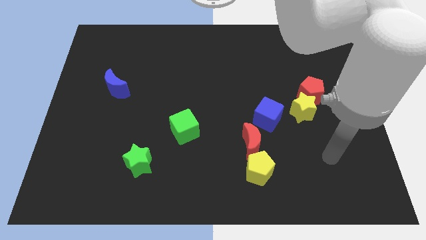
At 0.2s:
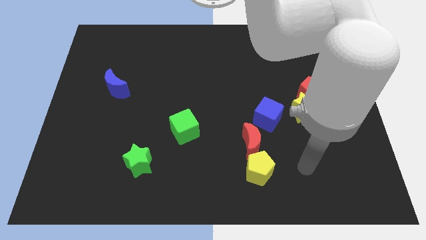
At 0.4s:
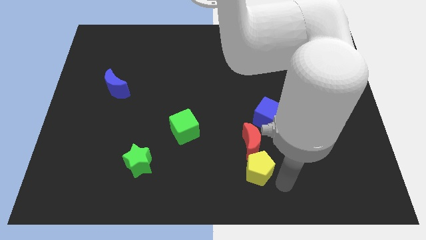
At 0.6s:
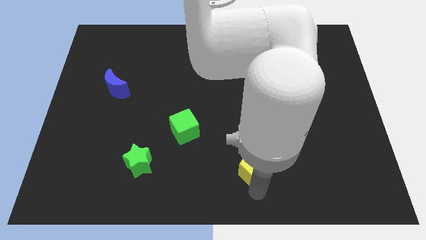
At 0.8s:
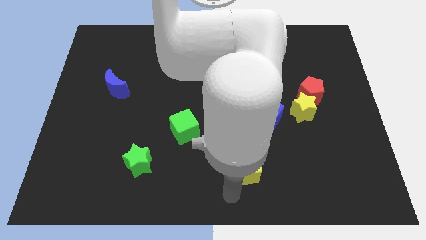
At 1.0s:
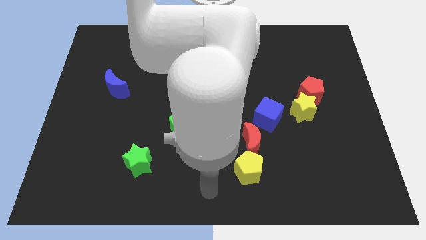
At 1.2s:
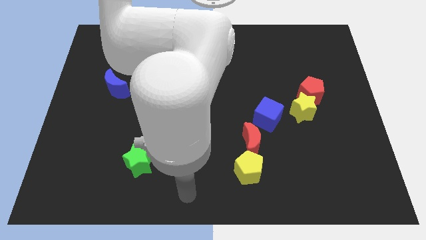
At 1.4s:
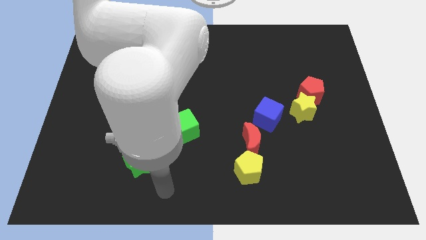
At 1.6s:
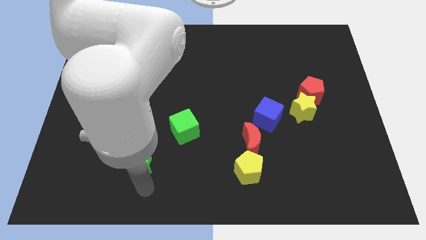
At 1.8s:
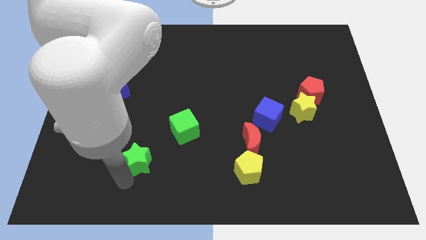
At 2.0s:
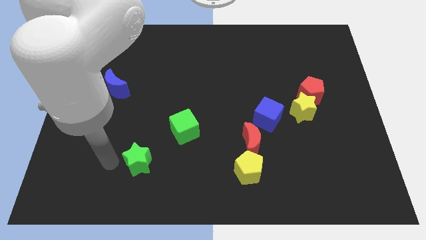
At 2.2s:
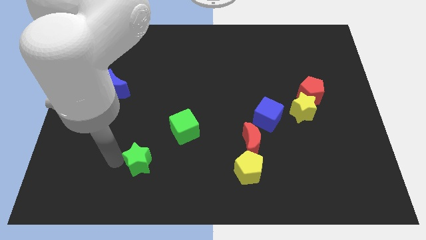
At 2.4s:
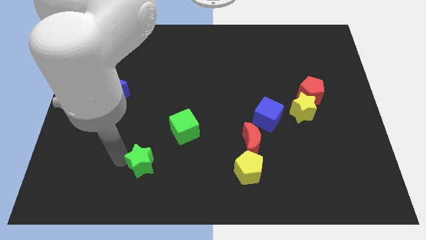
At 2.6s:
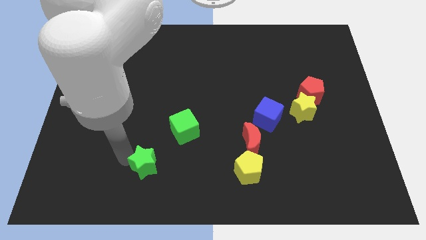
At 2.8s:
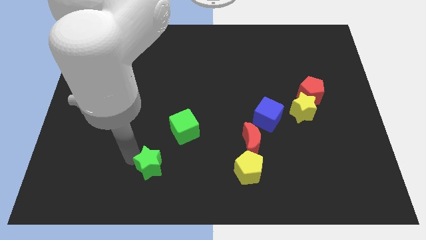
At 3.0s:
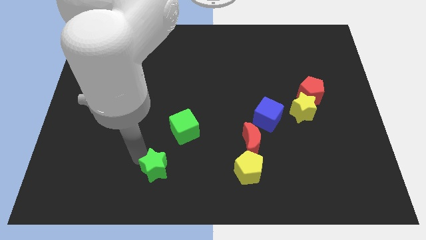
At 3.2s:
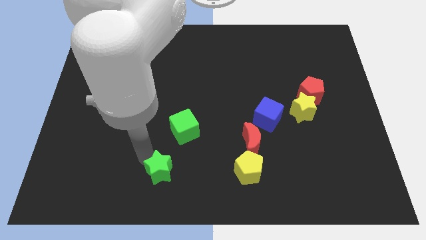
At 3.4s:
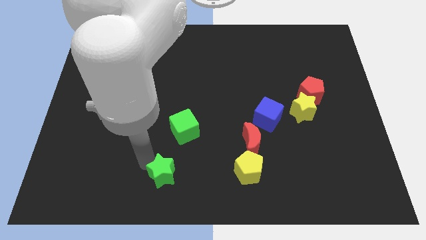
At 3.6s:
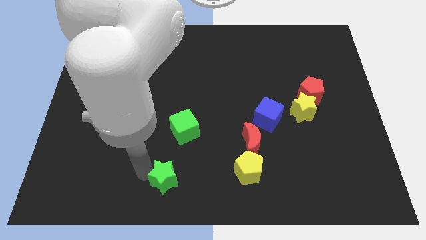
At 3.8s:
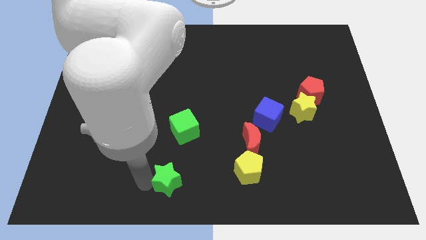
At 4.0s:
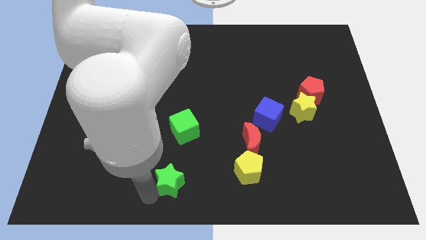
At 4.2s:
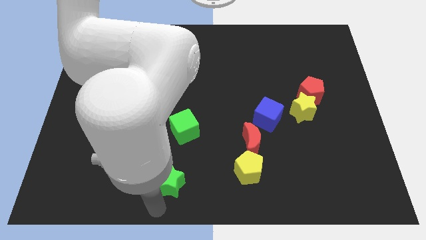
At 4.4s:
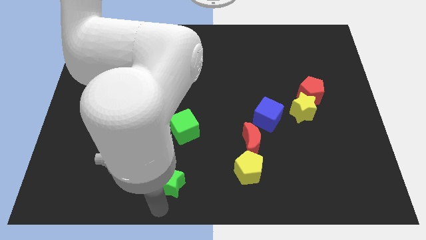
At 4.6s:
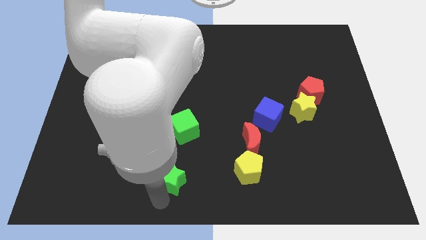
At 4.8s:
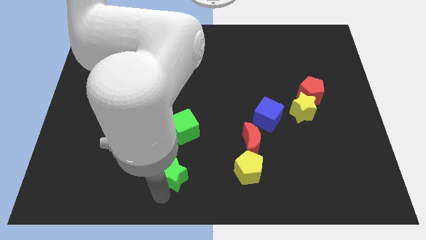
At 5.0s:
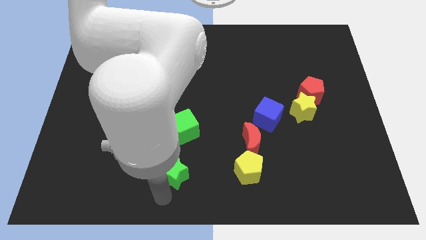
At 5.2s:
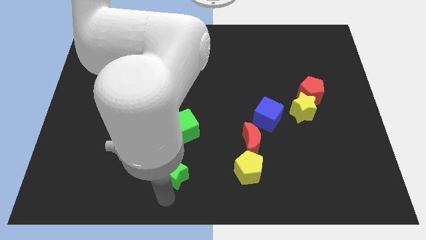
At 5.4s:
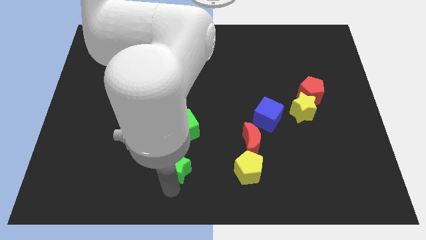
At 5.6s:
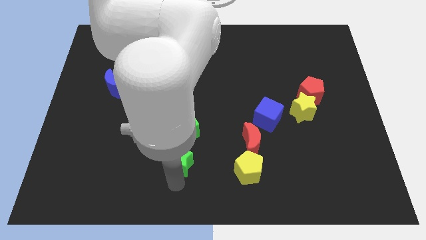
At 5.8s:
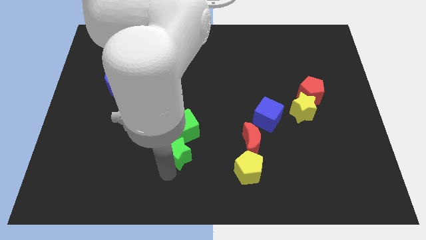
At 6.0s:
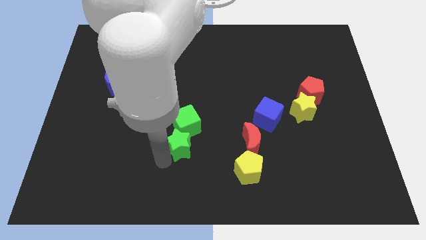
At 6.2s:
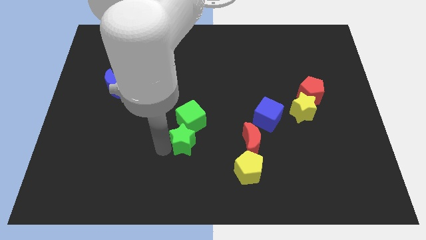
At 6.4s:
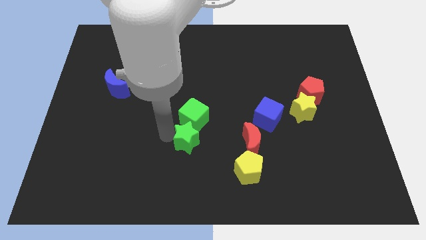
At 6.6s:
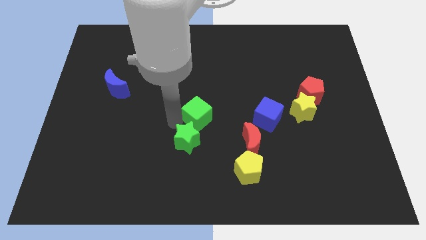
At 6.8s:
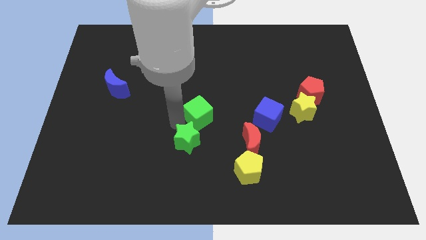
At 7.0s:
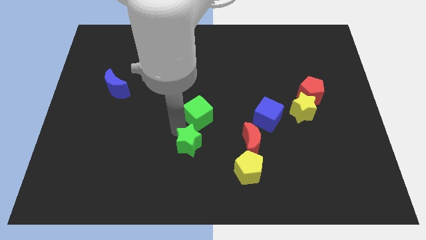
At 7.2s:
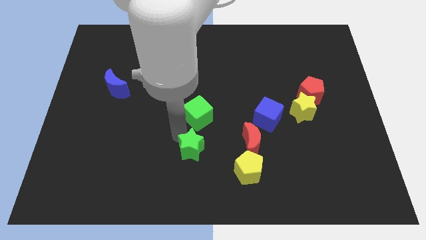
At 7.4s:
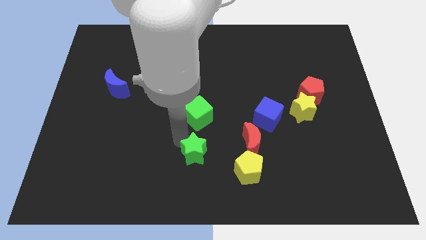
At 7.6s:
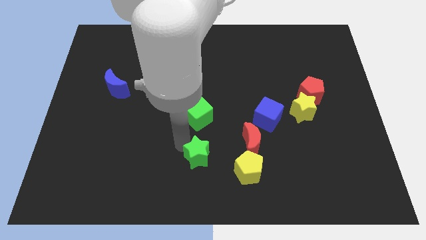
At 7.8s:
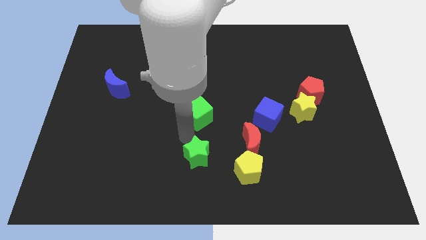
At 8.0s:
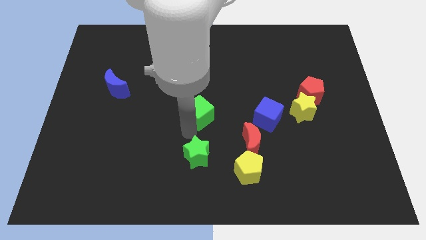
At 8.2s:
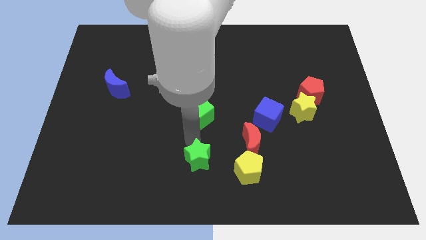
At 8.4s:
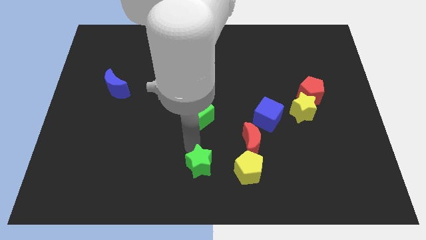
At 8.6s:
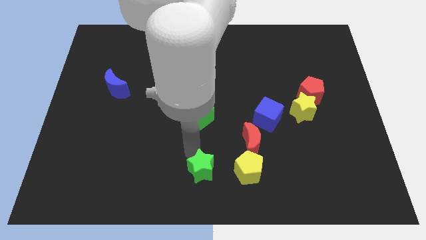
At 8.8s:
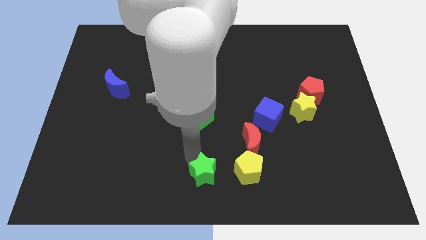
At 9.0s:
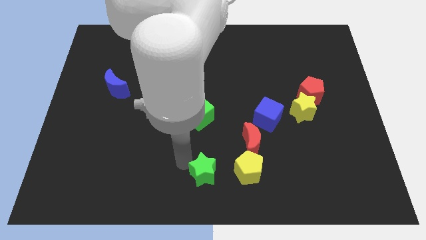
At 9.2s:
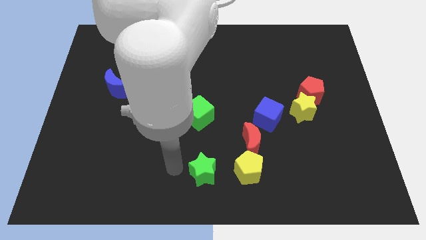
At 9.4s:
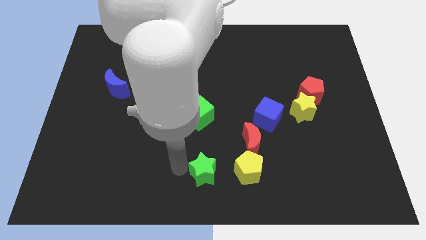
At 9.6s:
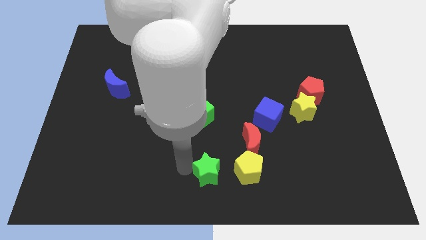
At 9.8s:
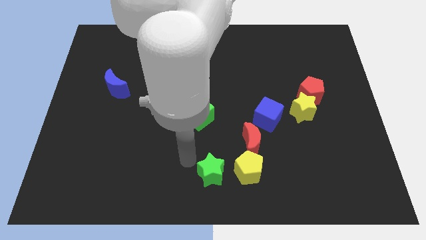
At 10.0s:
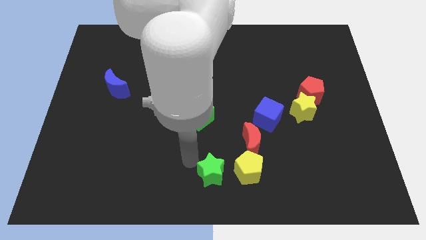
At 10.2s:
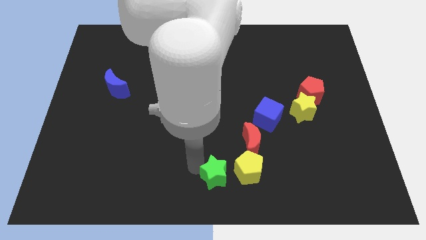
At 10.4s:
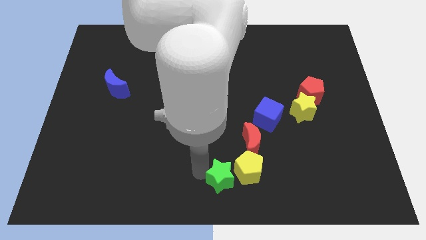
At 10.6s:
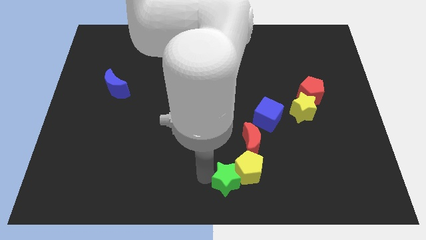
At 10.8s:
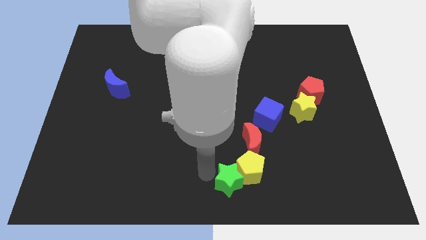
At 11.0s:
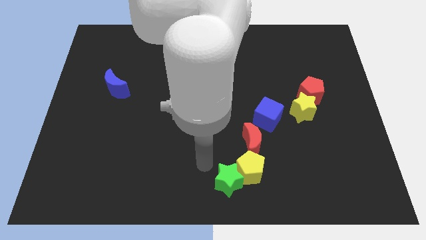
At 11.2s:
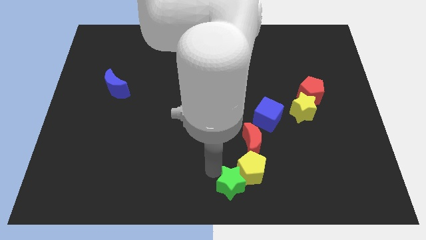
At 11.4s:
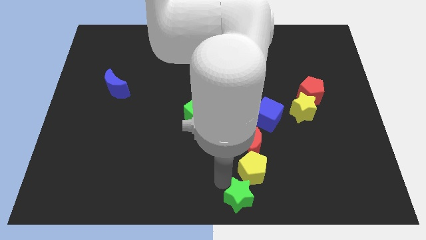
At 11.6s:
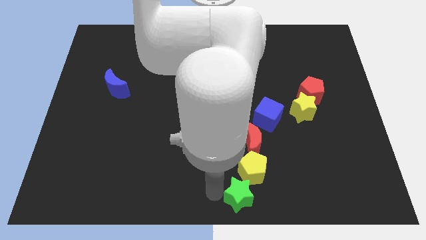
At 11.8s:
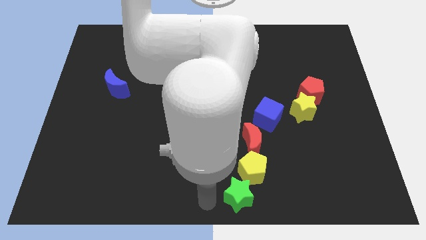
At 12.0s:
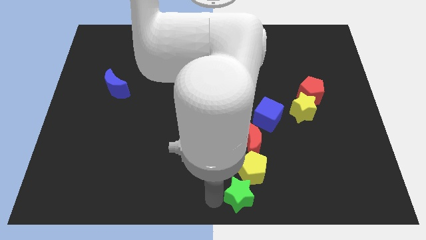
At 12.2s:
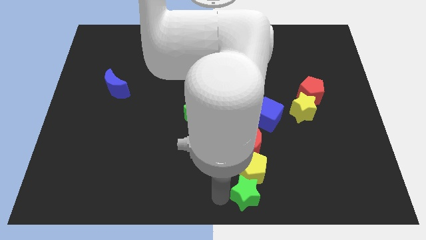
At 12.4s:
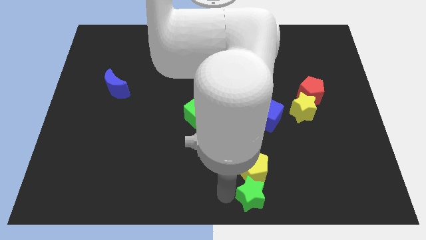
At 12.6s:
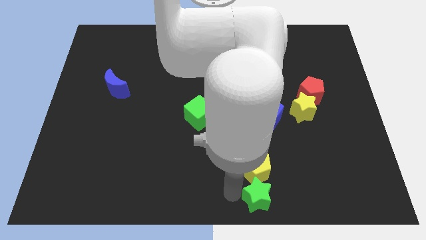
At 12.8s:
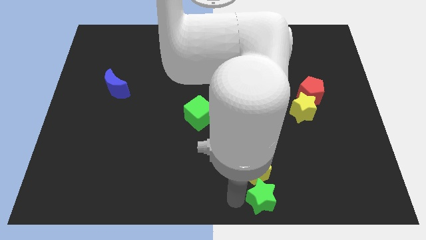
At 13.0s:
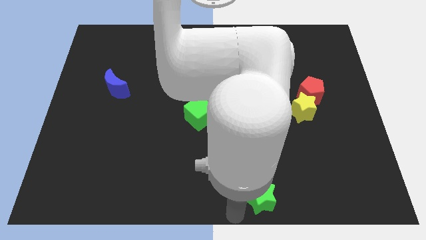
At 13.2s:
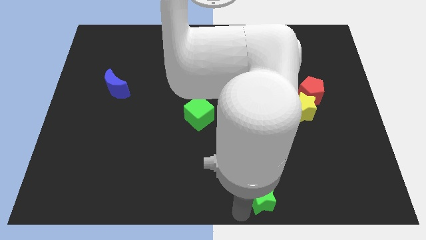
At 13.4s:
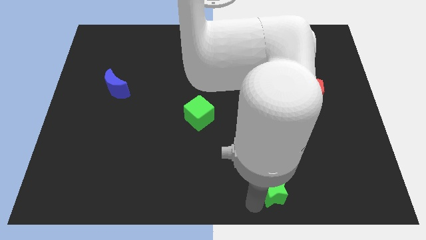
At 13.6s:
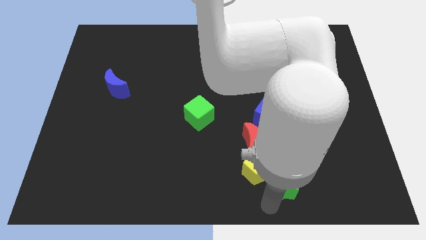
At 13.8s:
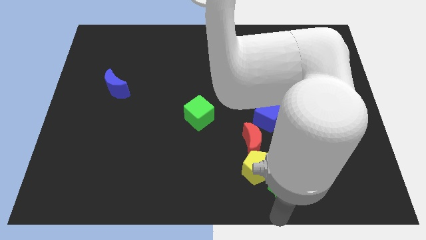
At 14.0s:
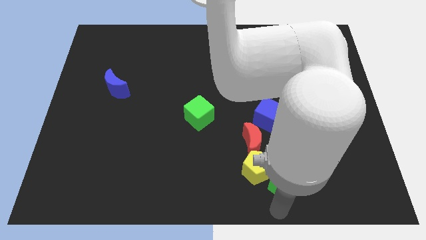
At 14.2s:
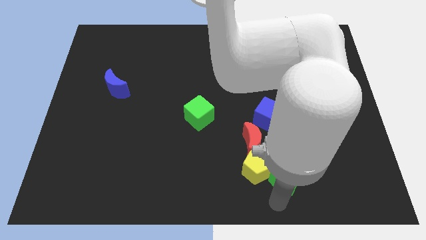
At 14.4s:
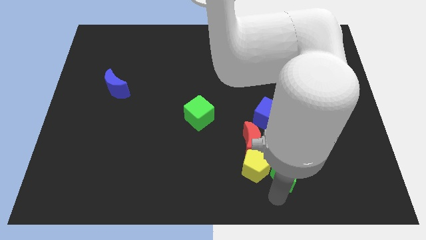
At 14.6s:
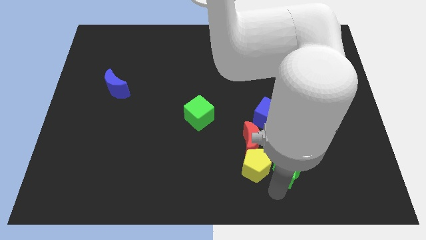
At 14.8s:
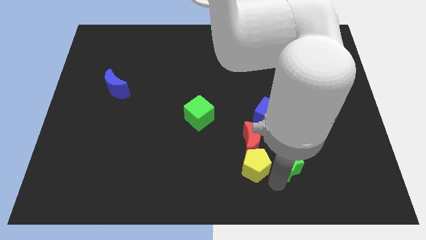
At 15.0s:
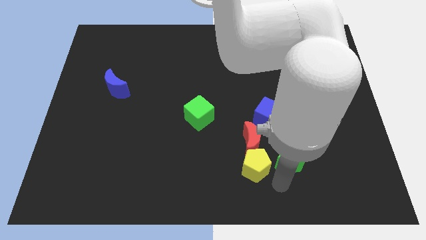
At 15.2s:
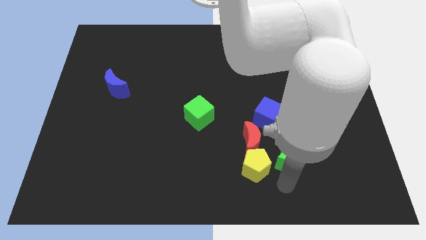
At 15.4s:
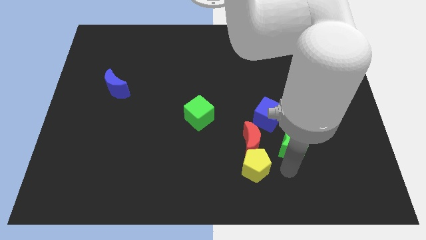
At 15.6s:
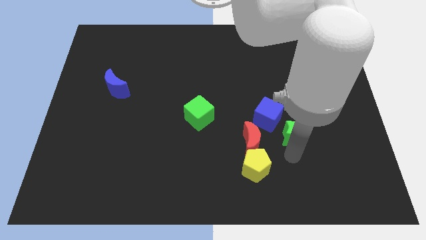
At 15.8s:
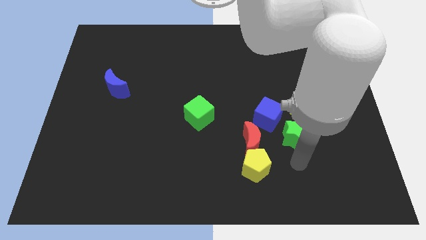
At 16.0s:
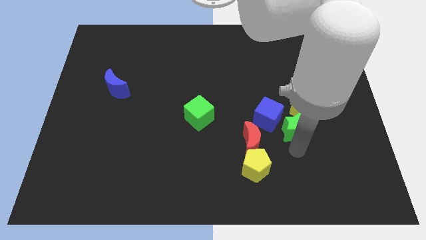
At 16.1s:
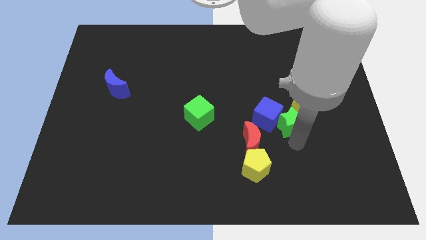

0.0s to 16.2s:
push the green star diagonally down and to the left of the red pentagon
